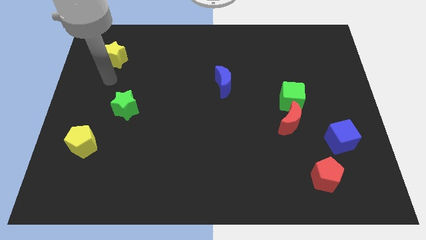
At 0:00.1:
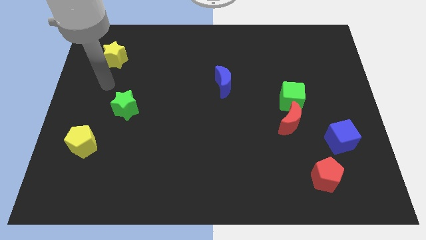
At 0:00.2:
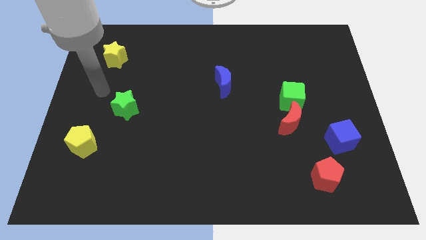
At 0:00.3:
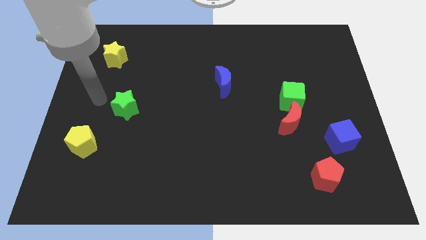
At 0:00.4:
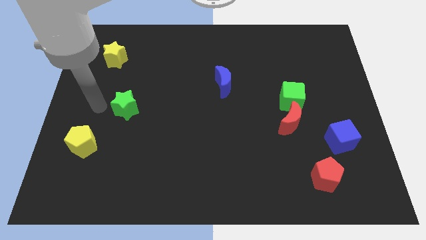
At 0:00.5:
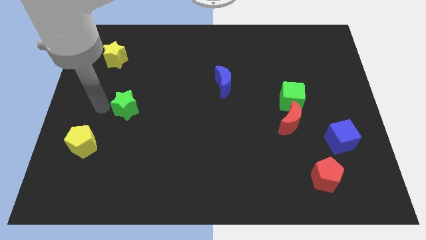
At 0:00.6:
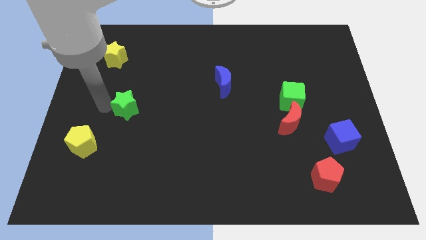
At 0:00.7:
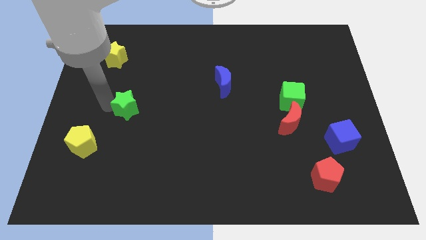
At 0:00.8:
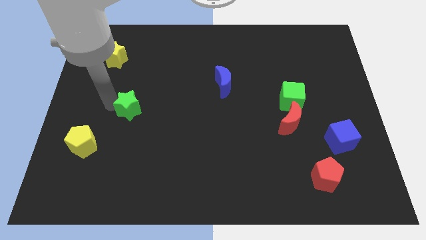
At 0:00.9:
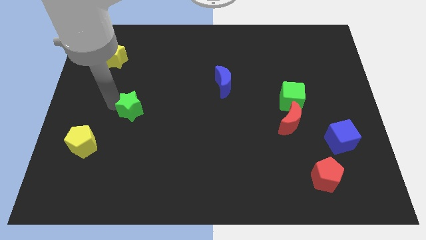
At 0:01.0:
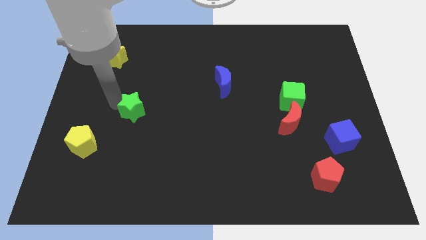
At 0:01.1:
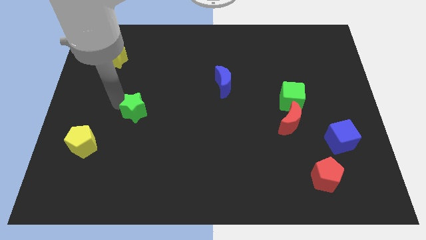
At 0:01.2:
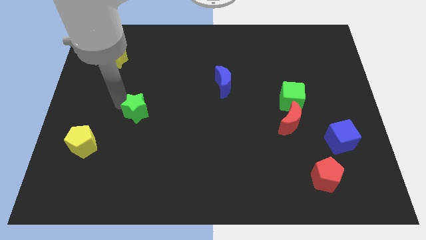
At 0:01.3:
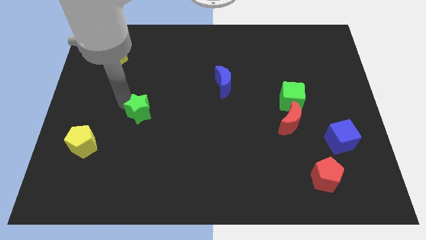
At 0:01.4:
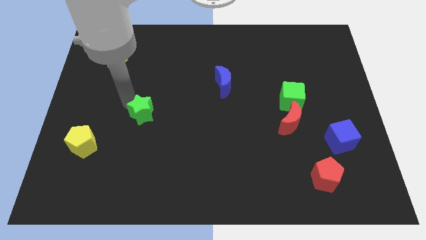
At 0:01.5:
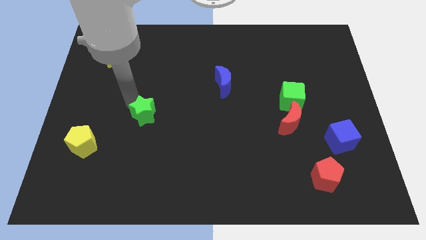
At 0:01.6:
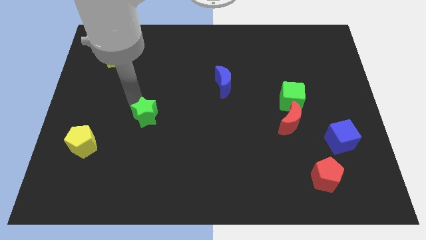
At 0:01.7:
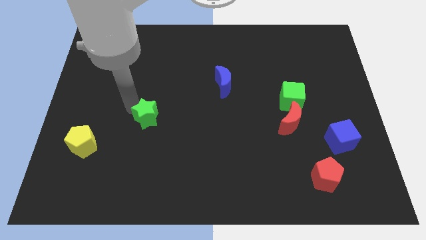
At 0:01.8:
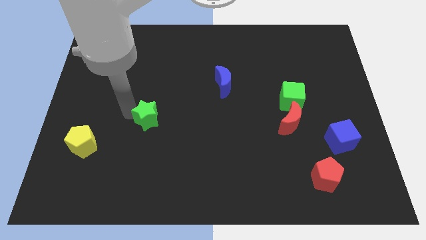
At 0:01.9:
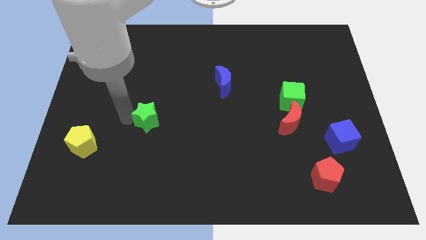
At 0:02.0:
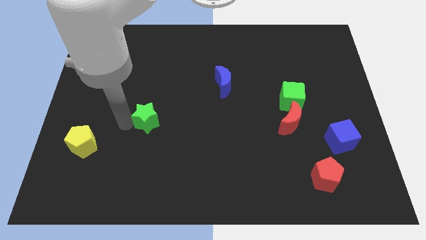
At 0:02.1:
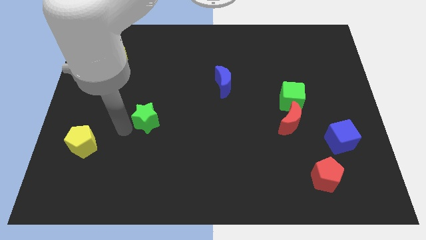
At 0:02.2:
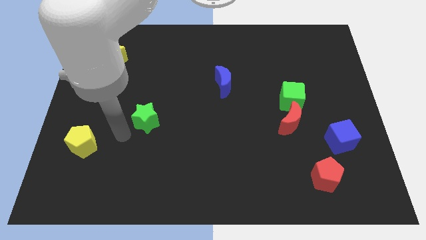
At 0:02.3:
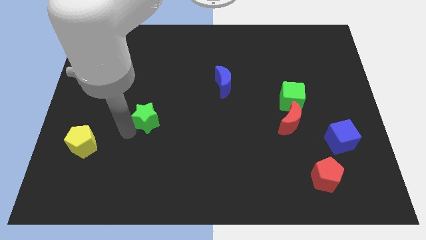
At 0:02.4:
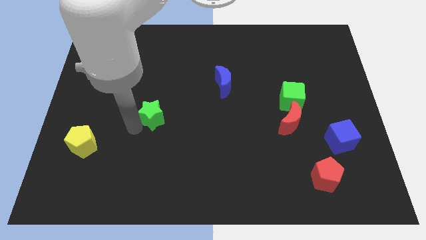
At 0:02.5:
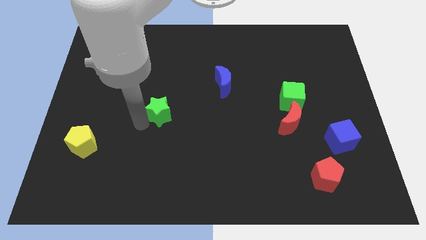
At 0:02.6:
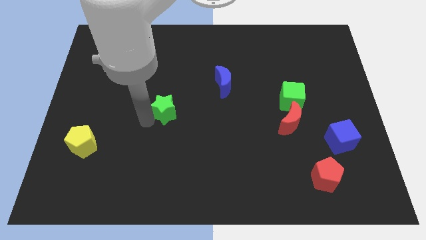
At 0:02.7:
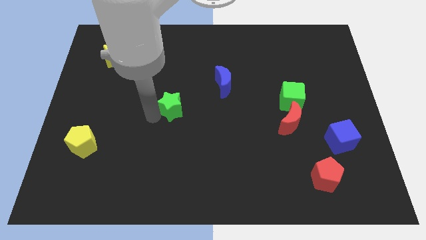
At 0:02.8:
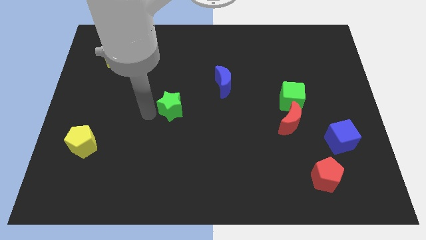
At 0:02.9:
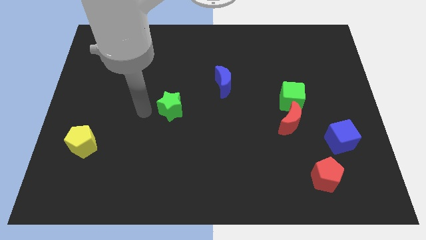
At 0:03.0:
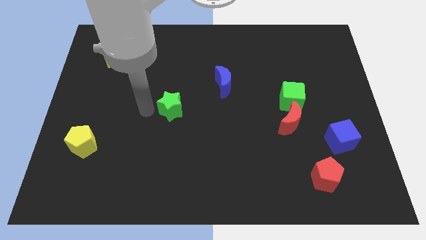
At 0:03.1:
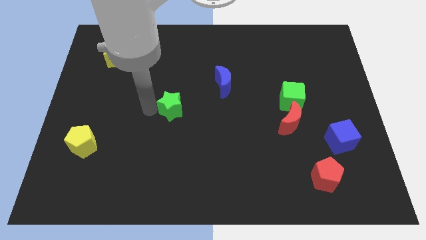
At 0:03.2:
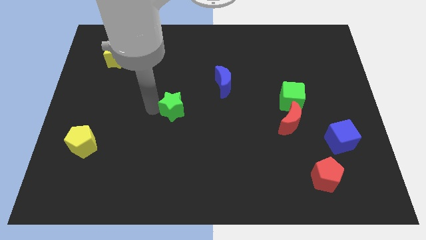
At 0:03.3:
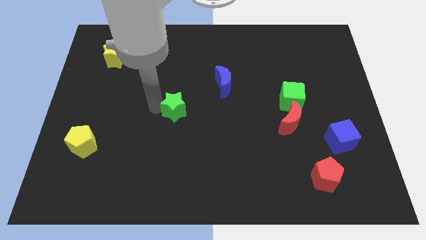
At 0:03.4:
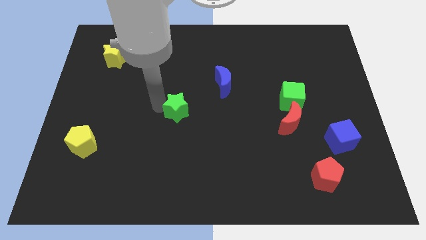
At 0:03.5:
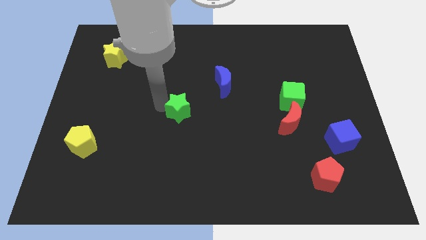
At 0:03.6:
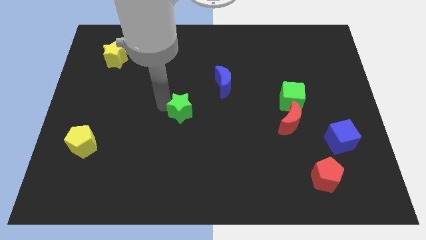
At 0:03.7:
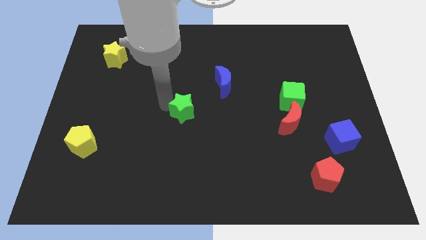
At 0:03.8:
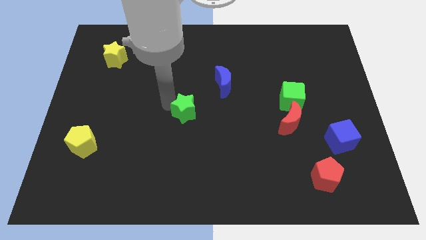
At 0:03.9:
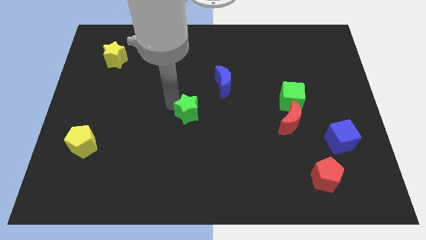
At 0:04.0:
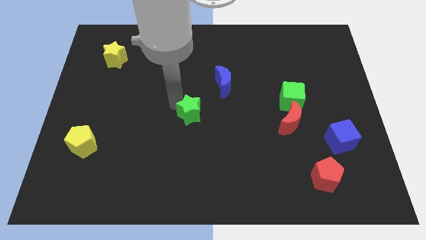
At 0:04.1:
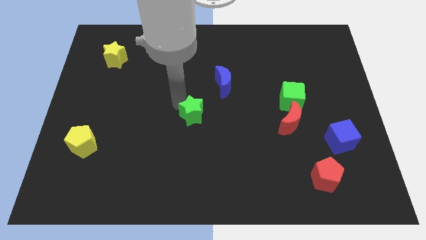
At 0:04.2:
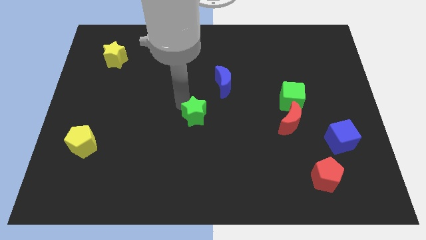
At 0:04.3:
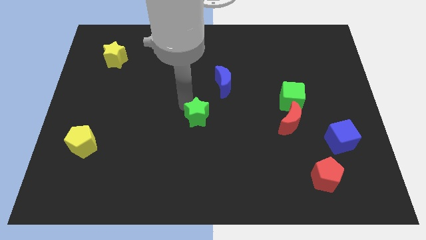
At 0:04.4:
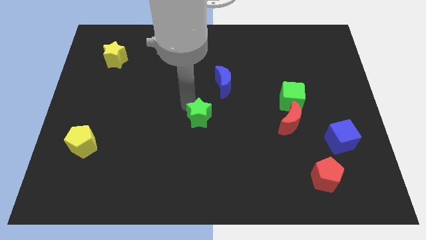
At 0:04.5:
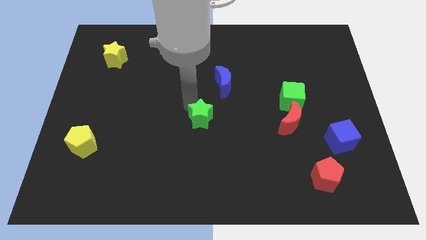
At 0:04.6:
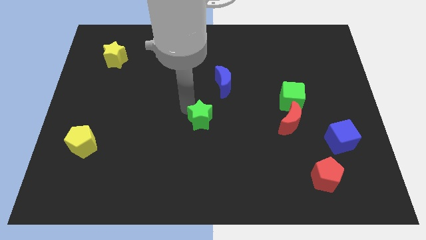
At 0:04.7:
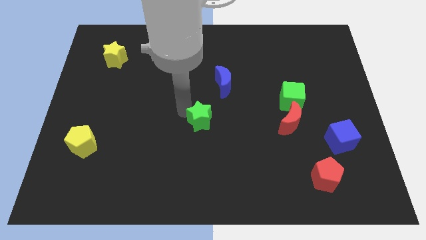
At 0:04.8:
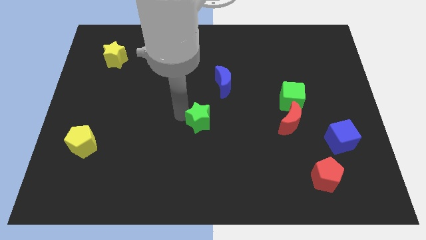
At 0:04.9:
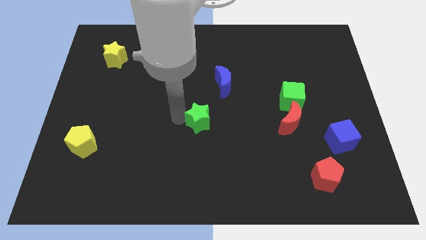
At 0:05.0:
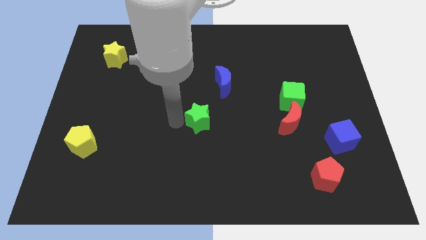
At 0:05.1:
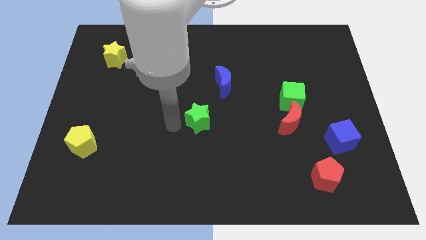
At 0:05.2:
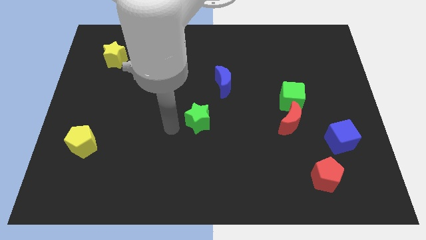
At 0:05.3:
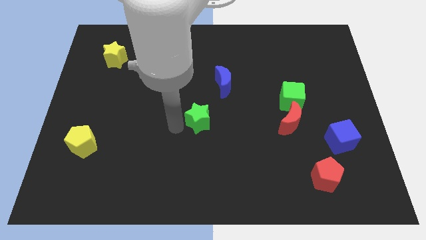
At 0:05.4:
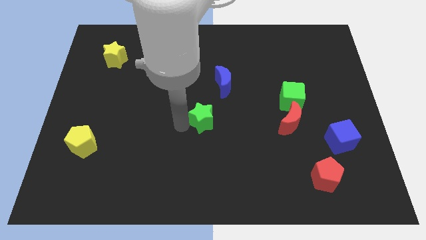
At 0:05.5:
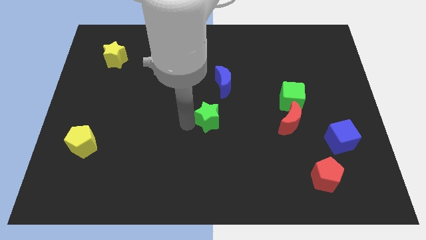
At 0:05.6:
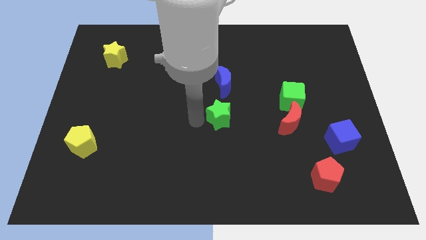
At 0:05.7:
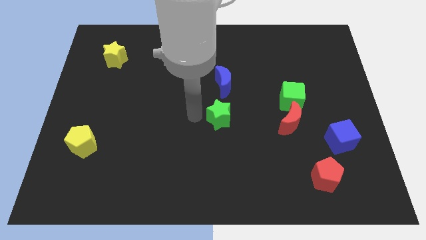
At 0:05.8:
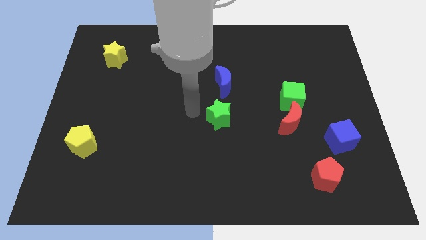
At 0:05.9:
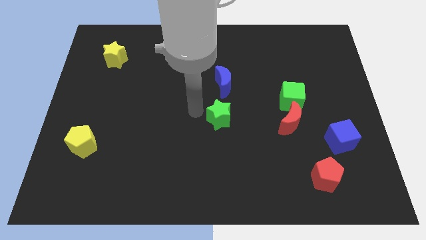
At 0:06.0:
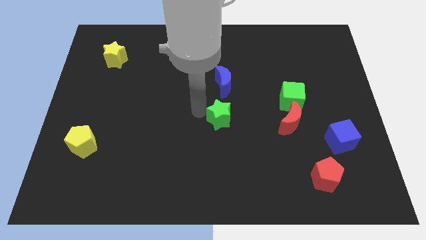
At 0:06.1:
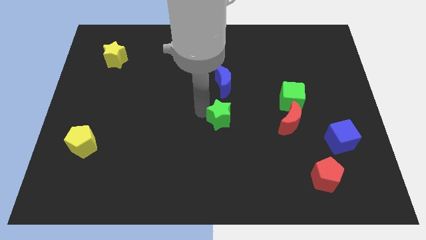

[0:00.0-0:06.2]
move the green star to the left of the red moon

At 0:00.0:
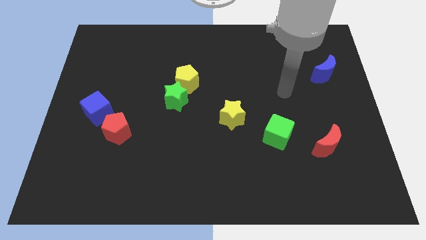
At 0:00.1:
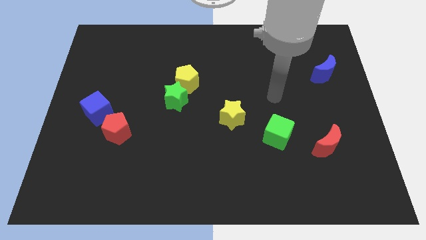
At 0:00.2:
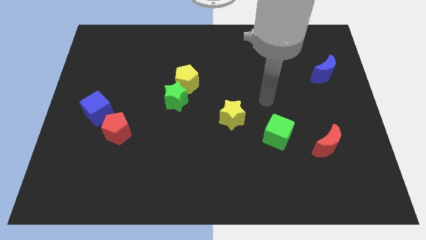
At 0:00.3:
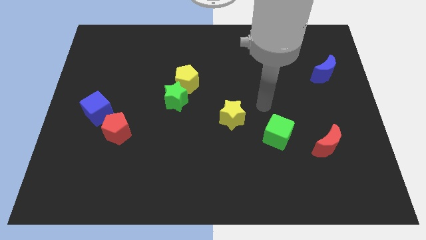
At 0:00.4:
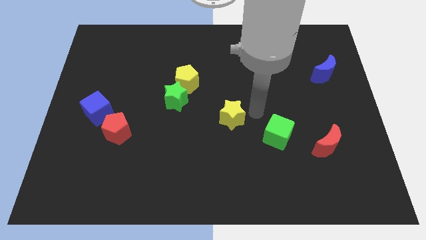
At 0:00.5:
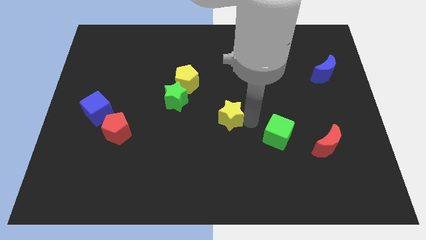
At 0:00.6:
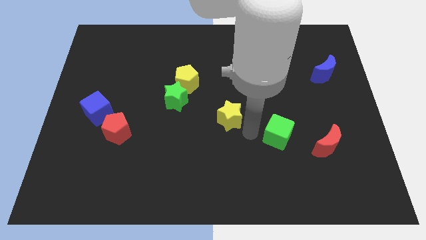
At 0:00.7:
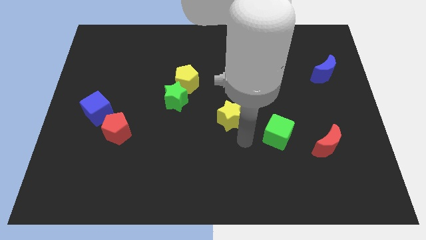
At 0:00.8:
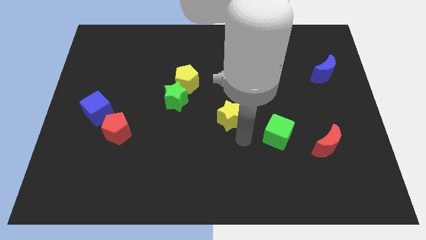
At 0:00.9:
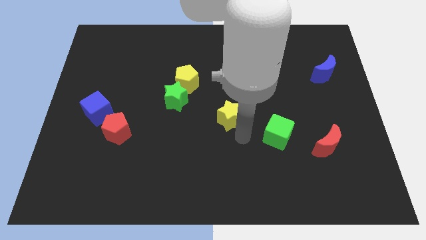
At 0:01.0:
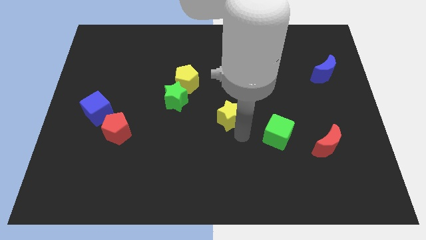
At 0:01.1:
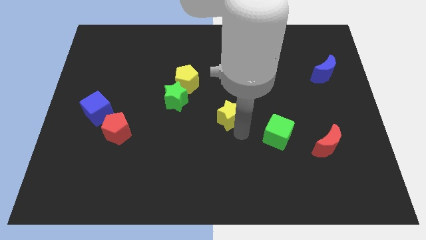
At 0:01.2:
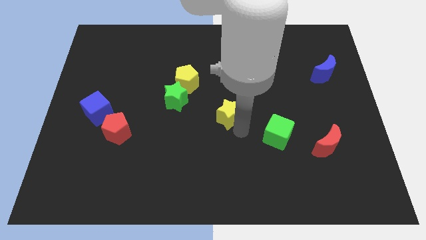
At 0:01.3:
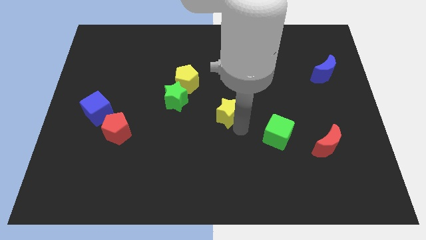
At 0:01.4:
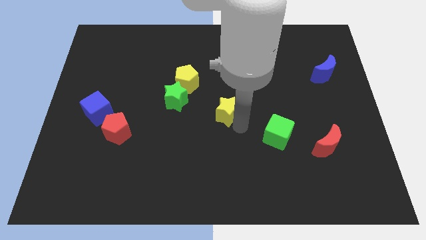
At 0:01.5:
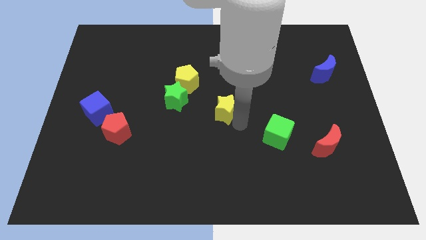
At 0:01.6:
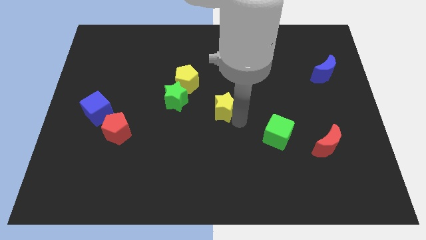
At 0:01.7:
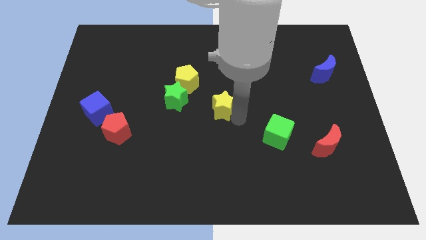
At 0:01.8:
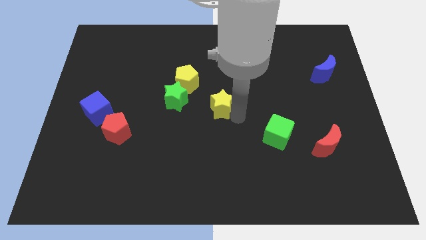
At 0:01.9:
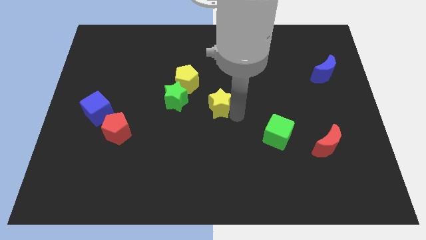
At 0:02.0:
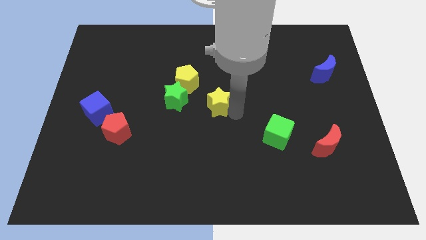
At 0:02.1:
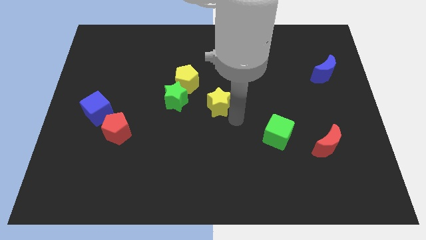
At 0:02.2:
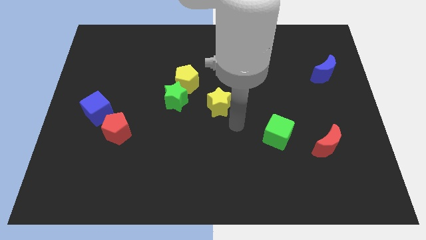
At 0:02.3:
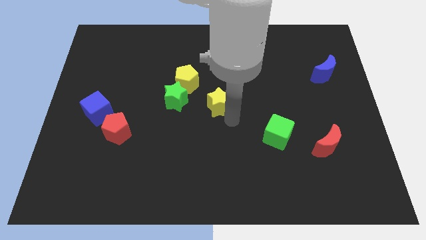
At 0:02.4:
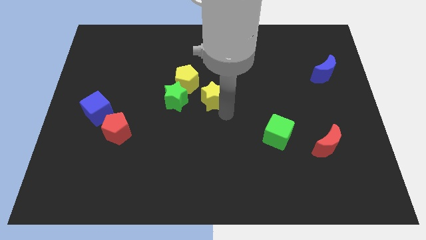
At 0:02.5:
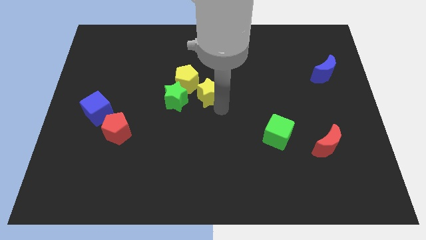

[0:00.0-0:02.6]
push the yellow star to the top right of the green star
